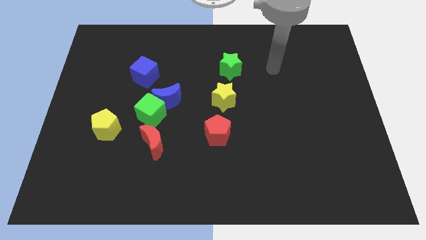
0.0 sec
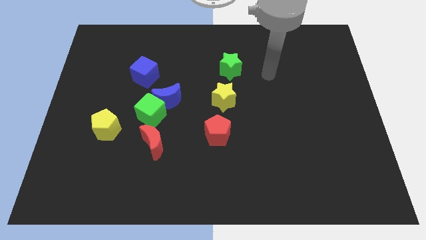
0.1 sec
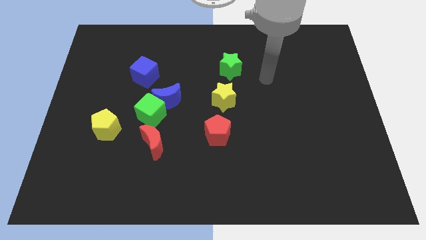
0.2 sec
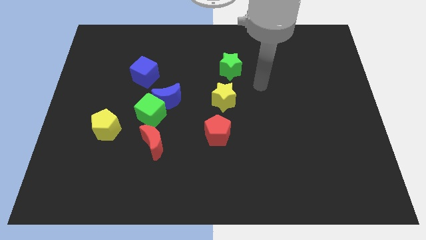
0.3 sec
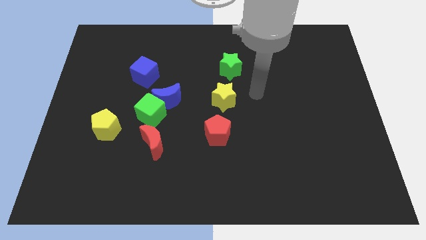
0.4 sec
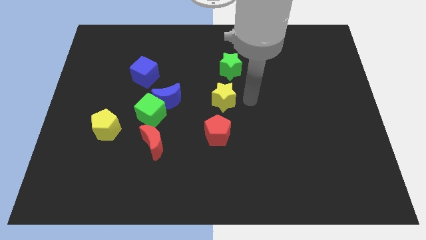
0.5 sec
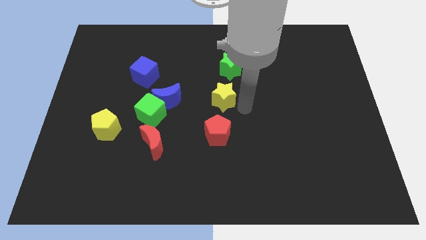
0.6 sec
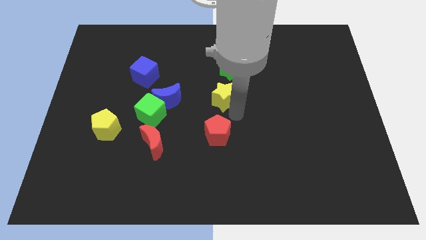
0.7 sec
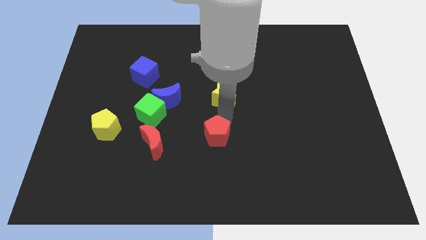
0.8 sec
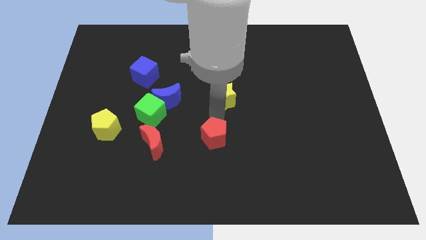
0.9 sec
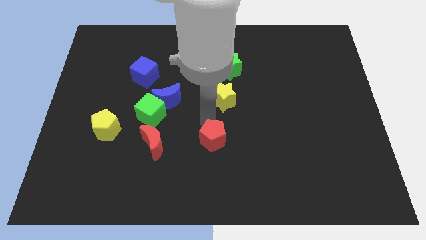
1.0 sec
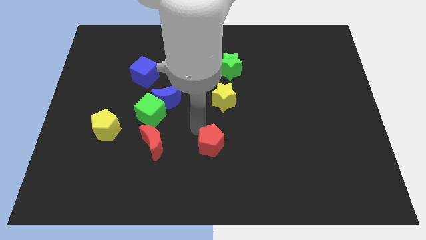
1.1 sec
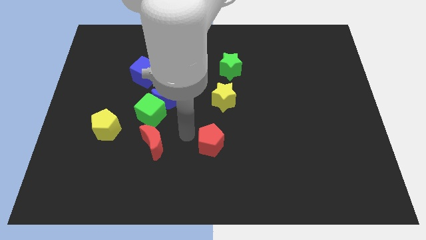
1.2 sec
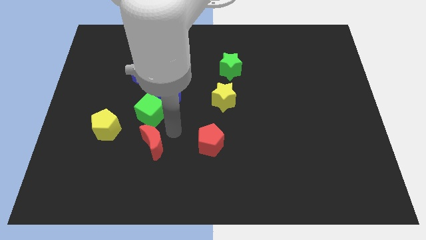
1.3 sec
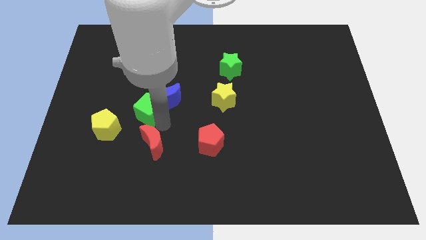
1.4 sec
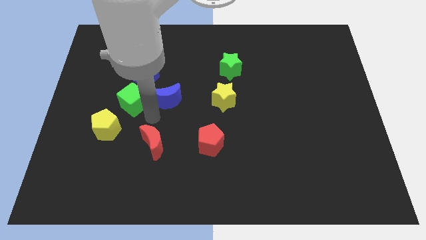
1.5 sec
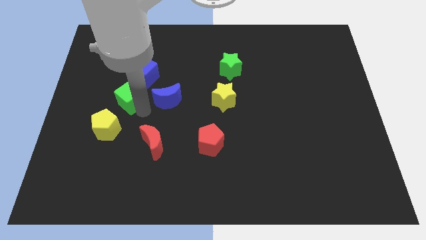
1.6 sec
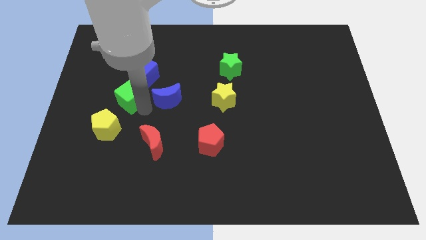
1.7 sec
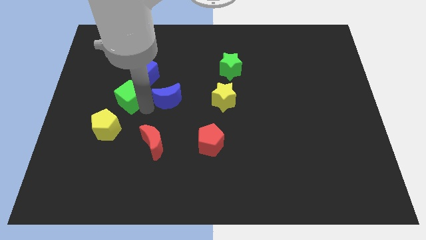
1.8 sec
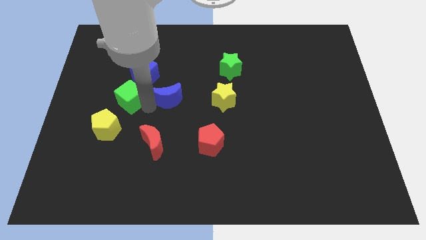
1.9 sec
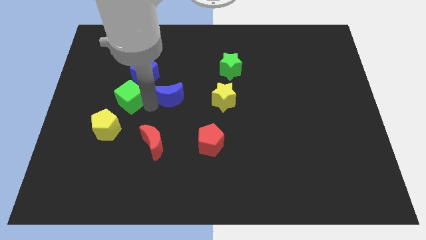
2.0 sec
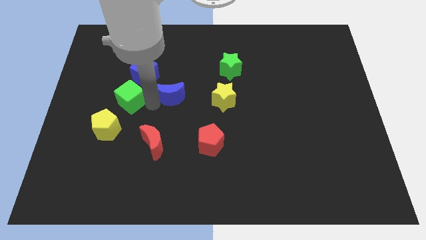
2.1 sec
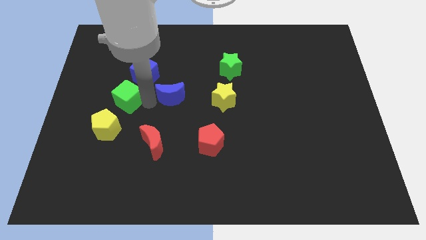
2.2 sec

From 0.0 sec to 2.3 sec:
pull the blue moon apart from the green cube

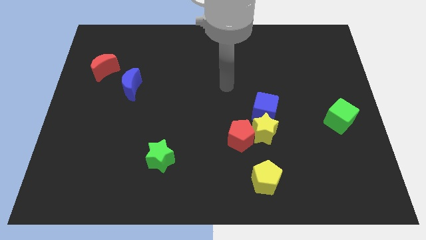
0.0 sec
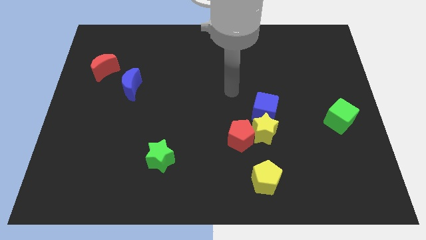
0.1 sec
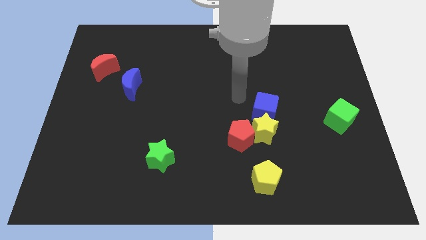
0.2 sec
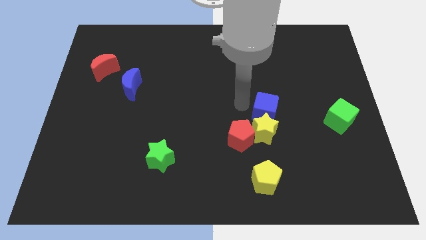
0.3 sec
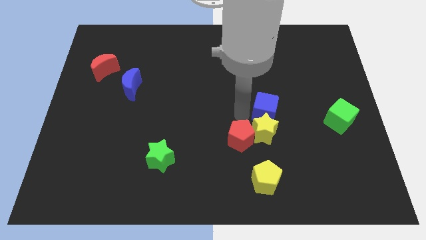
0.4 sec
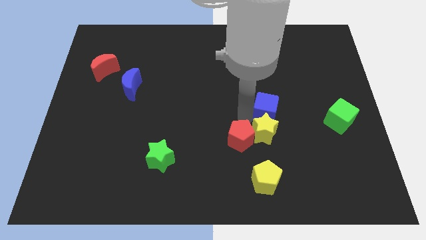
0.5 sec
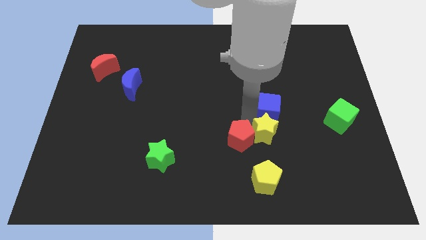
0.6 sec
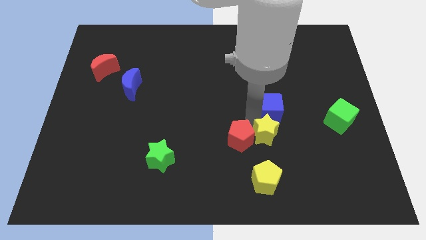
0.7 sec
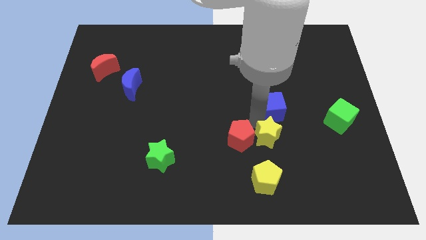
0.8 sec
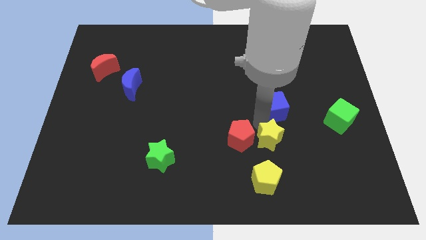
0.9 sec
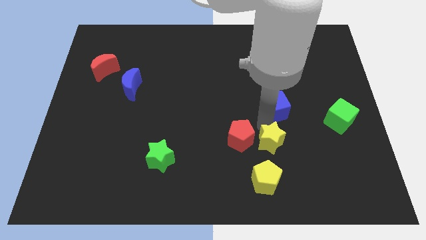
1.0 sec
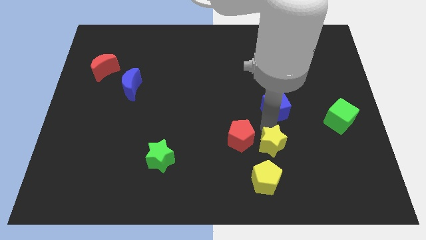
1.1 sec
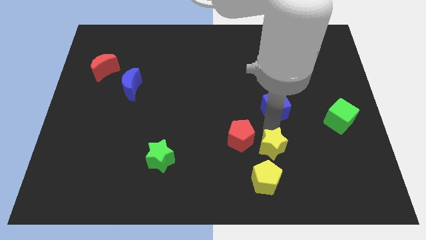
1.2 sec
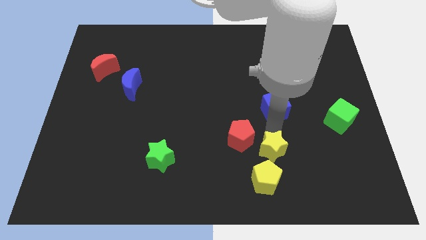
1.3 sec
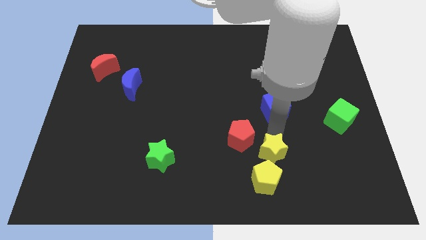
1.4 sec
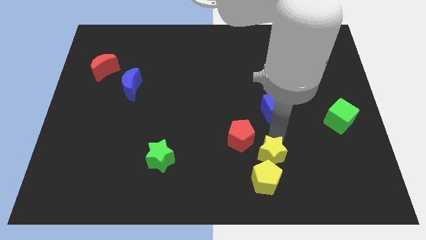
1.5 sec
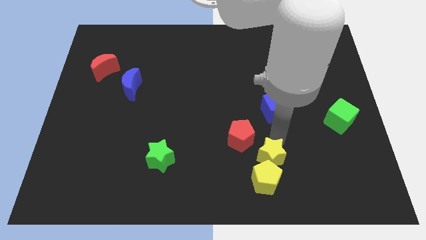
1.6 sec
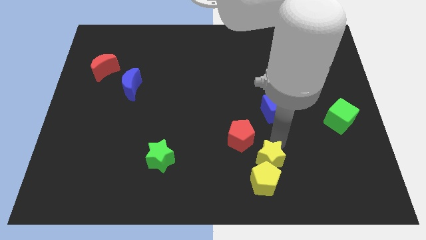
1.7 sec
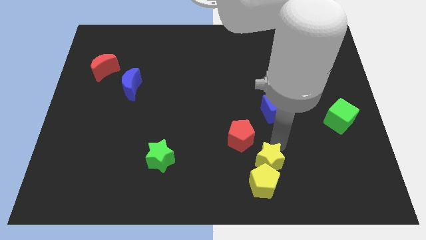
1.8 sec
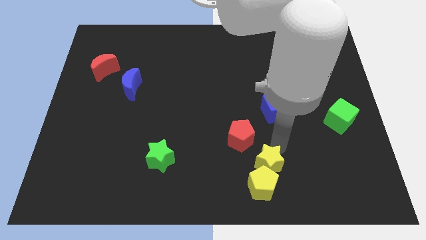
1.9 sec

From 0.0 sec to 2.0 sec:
move the yellow star away from the red pentagon and blue cube

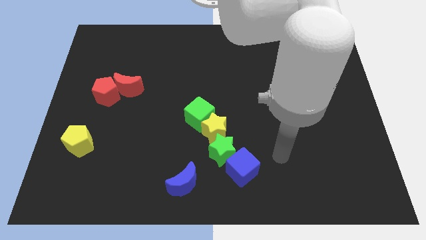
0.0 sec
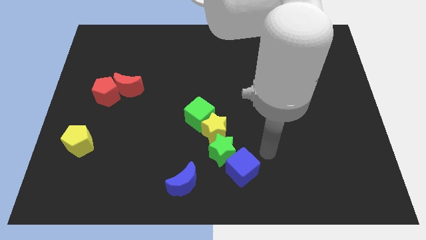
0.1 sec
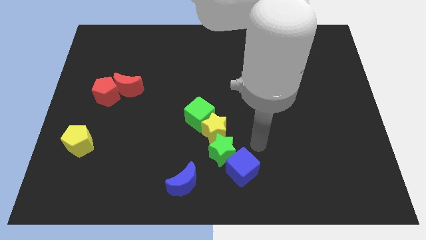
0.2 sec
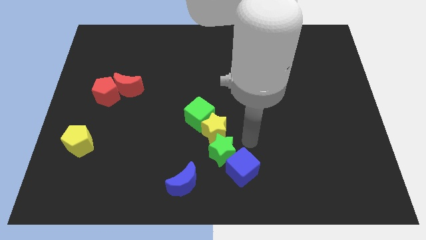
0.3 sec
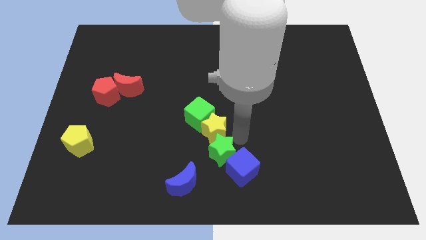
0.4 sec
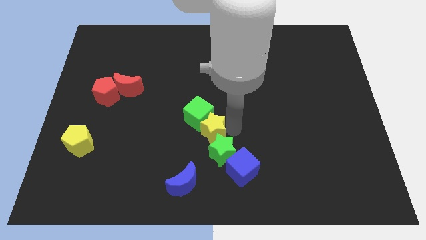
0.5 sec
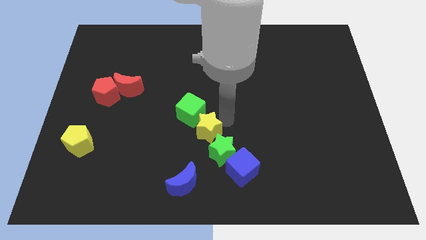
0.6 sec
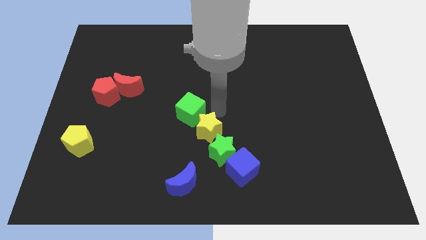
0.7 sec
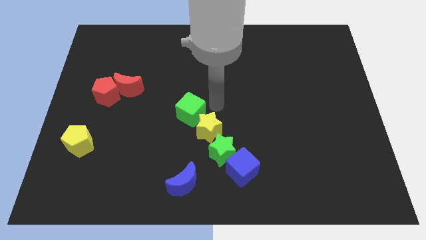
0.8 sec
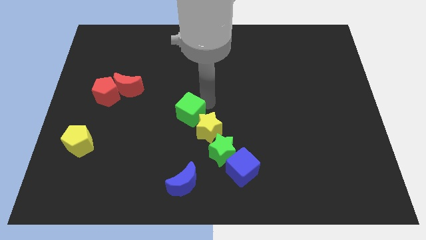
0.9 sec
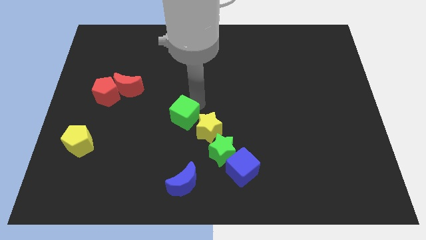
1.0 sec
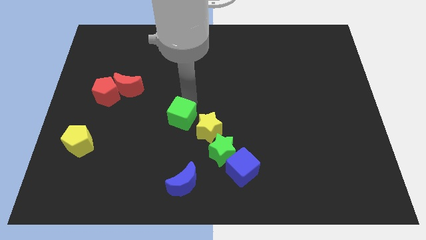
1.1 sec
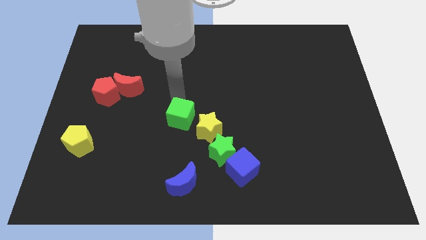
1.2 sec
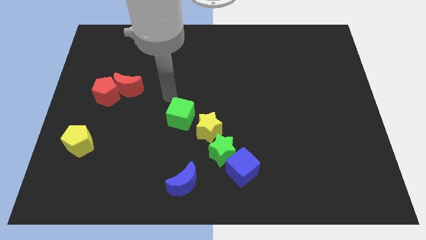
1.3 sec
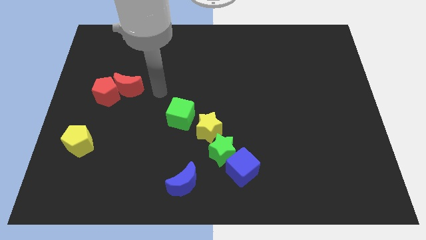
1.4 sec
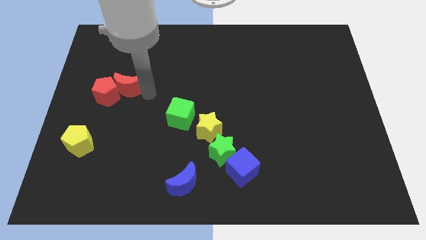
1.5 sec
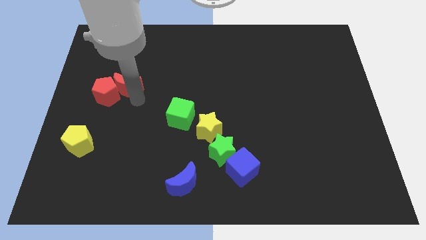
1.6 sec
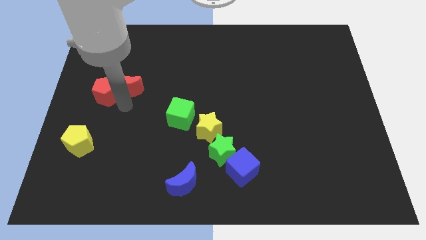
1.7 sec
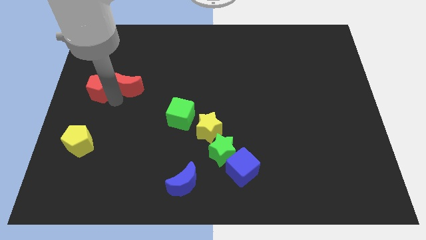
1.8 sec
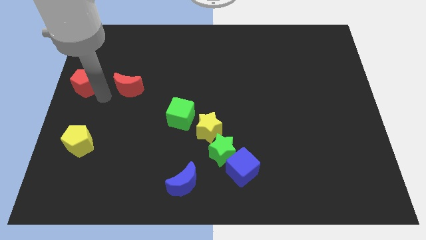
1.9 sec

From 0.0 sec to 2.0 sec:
separate the red moon from the red pentagon

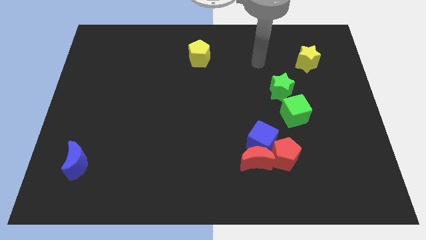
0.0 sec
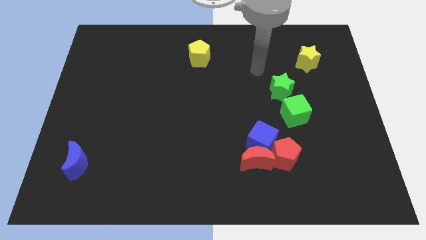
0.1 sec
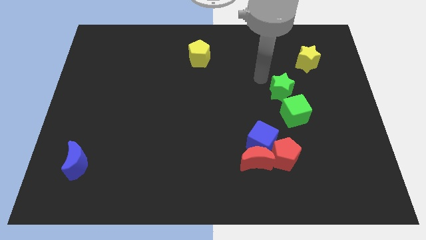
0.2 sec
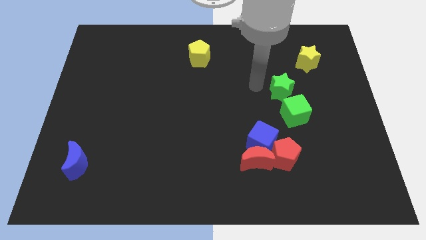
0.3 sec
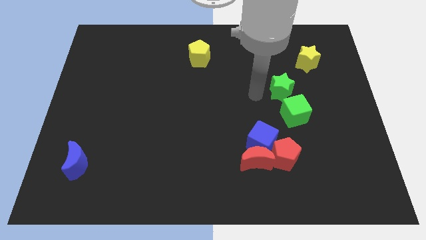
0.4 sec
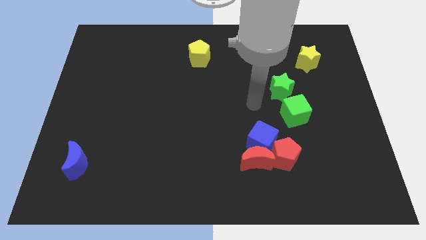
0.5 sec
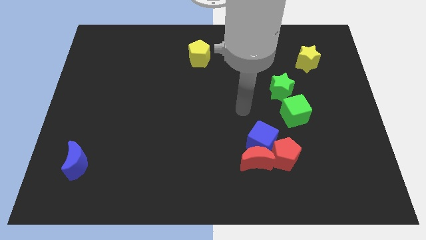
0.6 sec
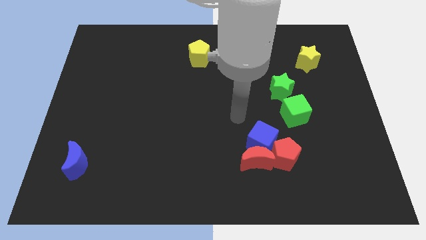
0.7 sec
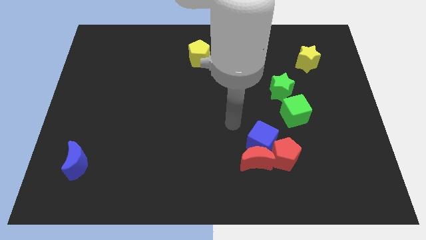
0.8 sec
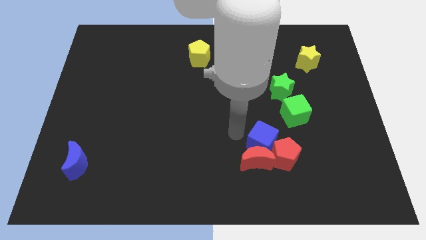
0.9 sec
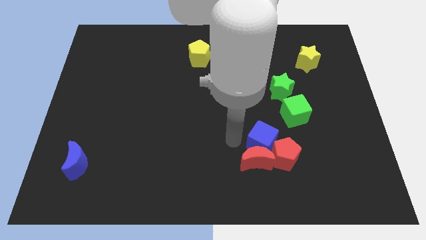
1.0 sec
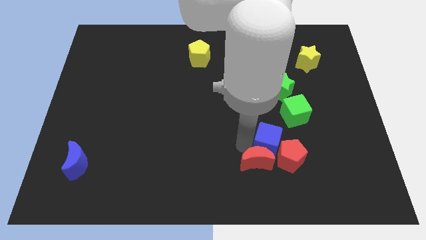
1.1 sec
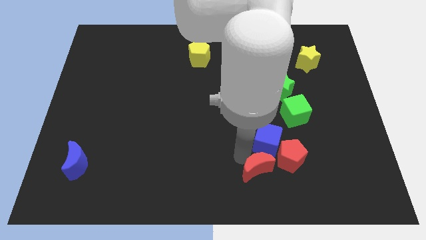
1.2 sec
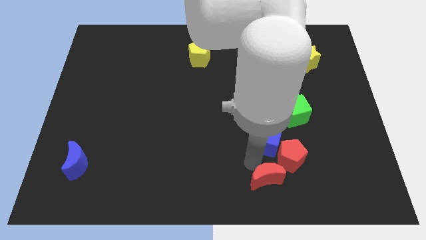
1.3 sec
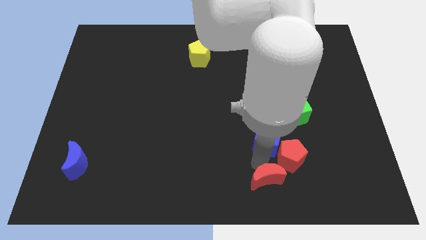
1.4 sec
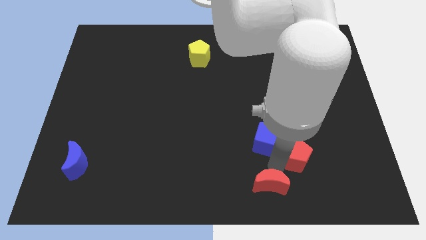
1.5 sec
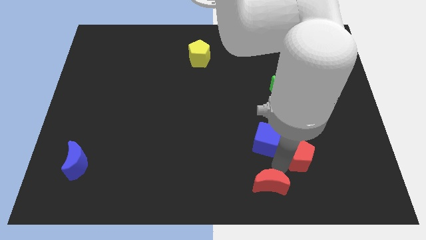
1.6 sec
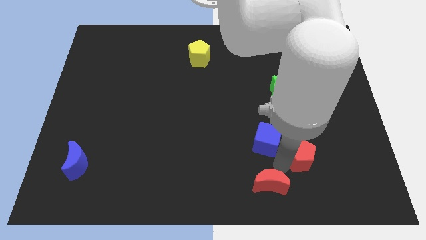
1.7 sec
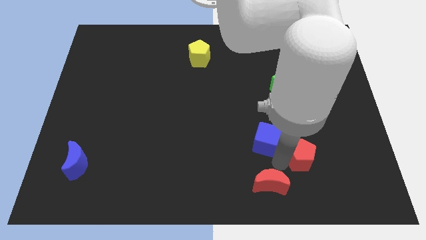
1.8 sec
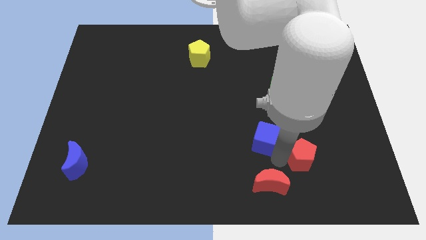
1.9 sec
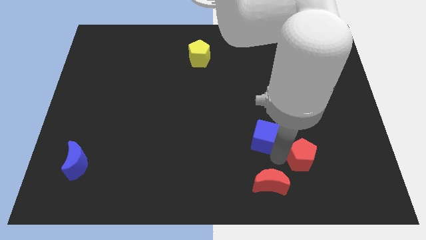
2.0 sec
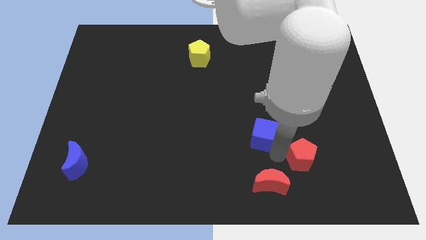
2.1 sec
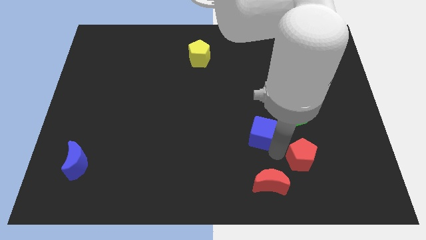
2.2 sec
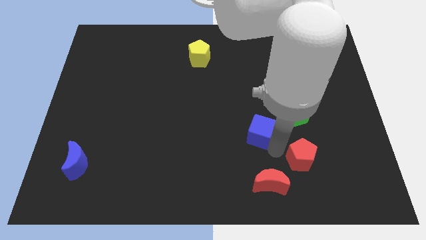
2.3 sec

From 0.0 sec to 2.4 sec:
separate the blue cube from the red moon and red pentagon

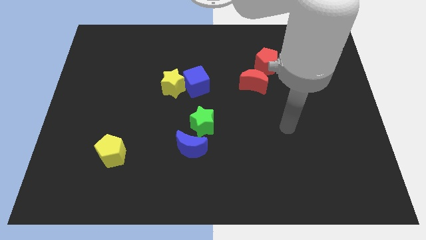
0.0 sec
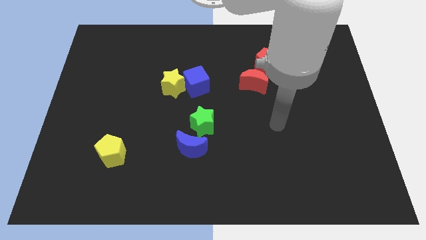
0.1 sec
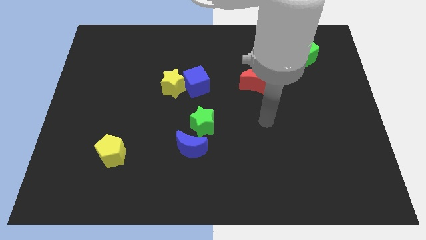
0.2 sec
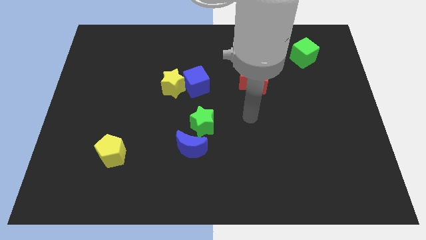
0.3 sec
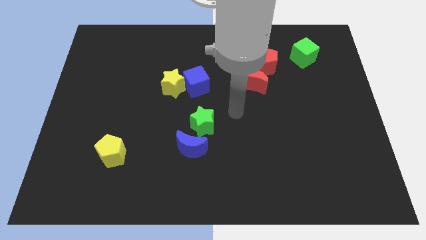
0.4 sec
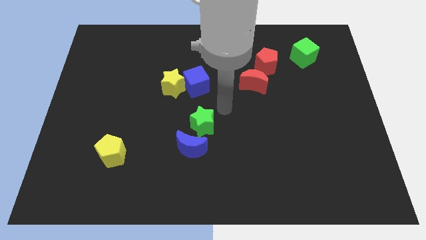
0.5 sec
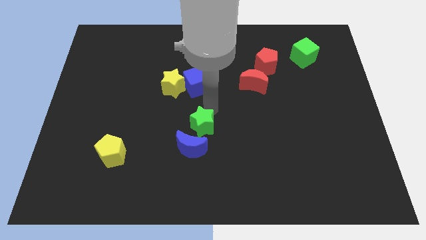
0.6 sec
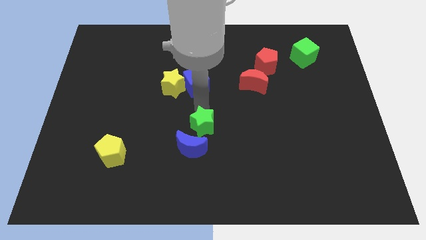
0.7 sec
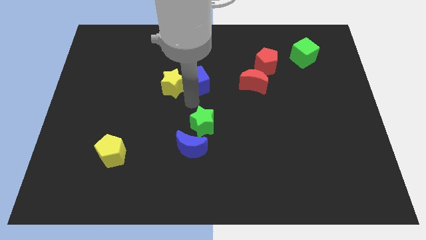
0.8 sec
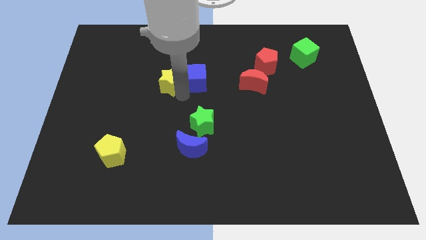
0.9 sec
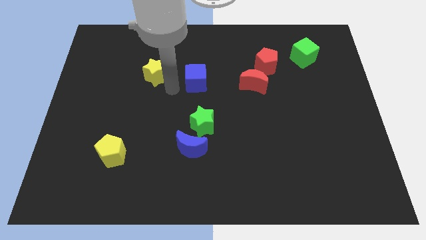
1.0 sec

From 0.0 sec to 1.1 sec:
move the blue cube away from the yellow star
